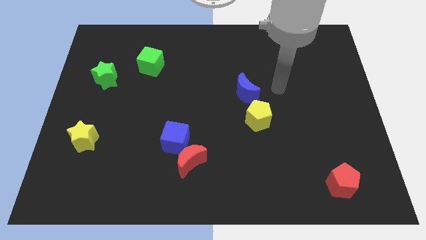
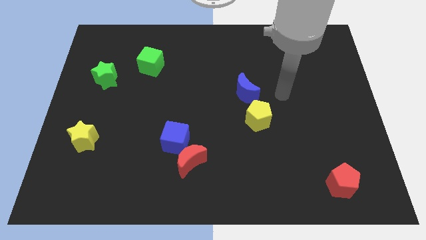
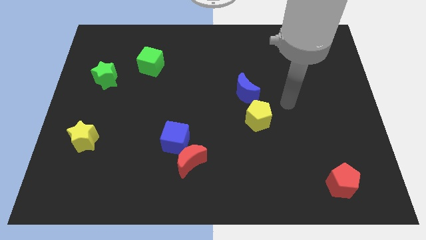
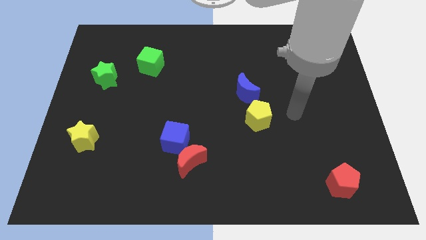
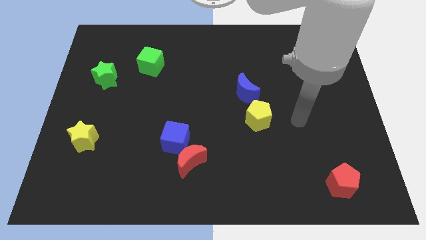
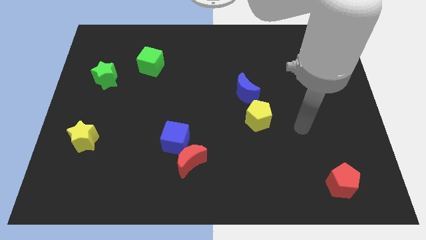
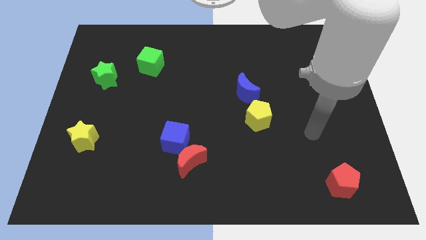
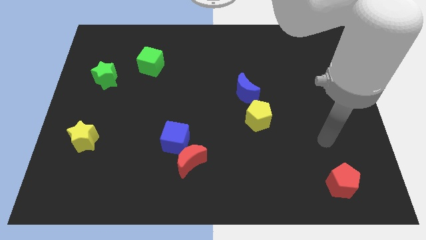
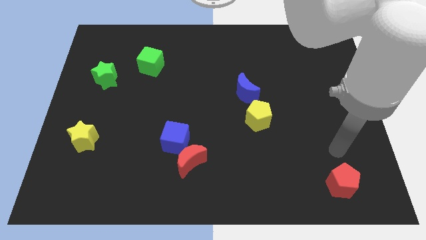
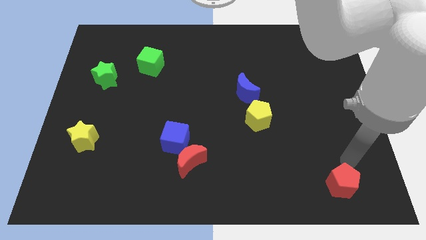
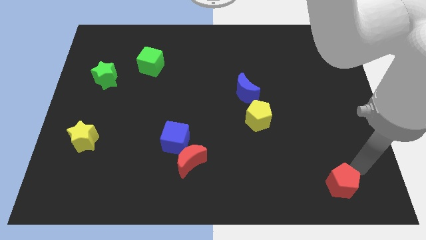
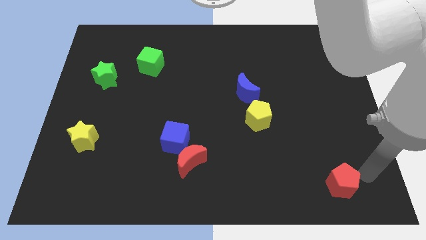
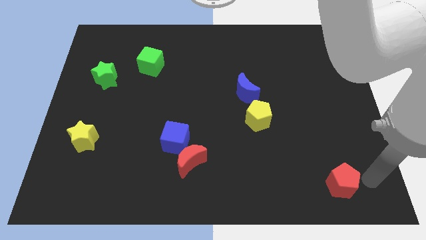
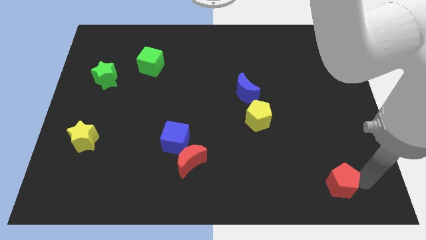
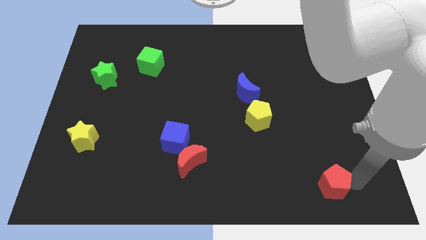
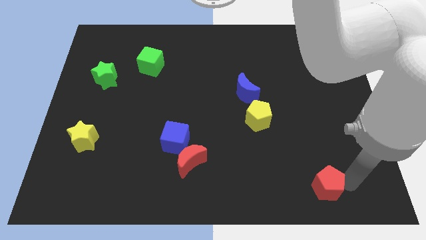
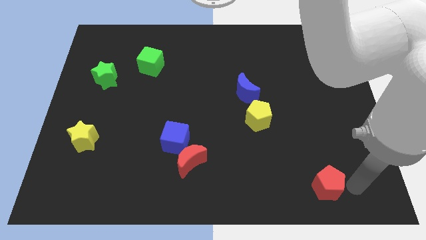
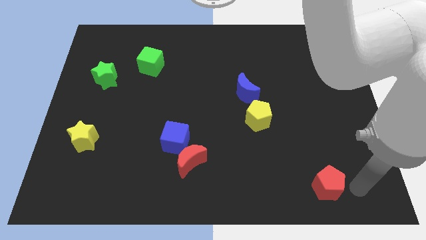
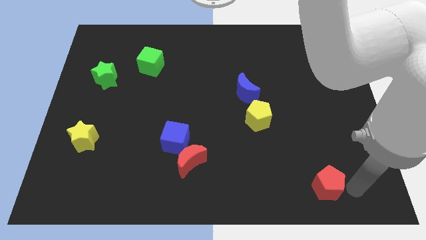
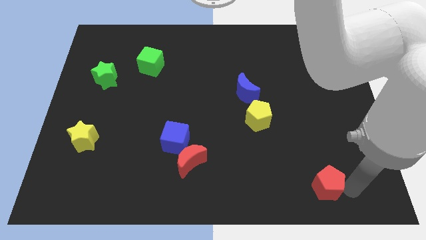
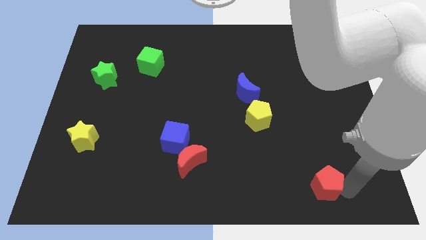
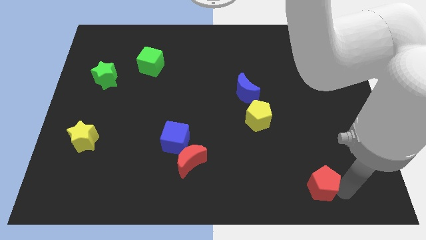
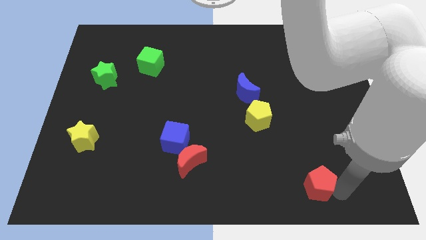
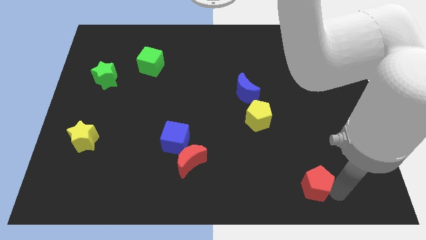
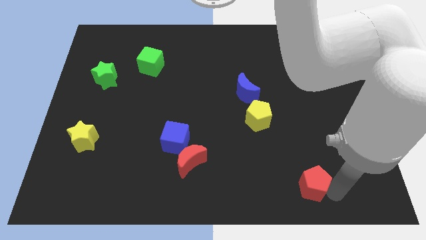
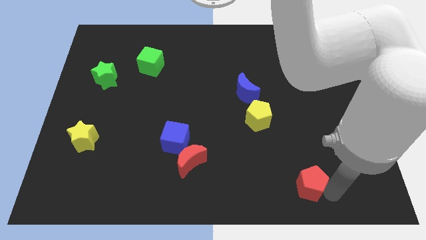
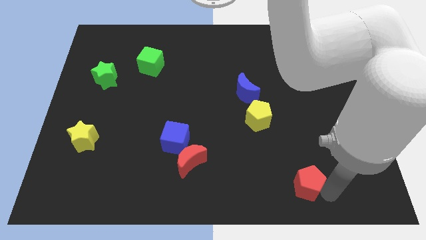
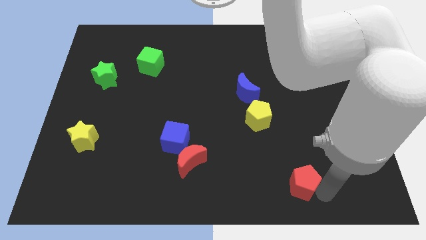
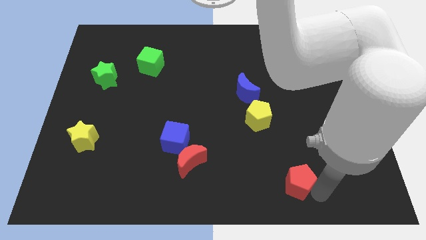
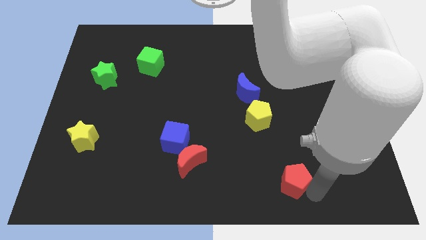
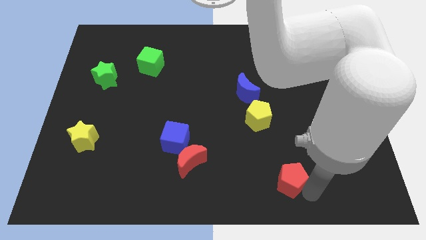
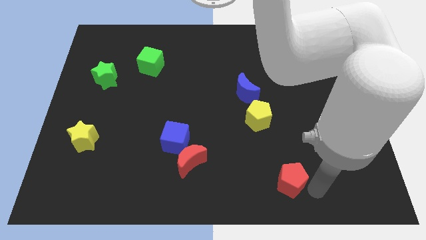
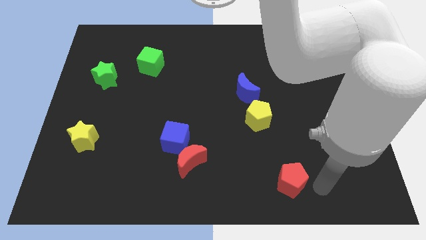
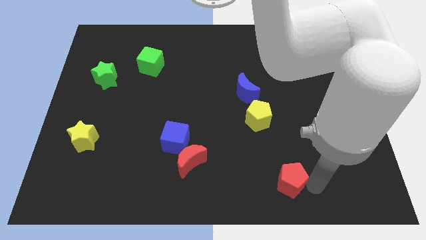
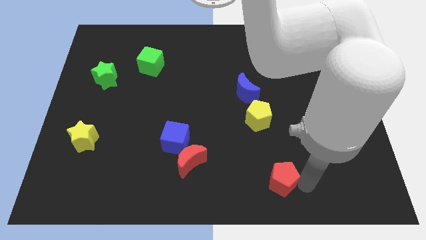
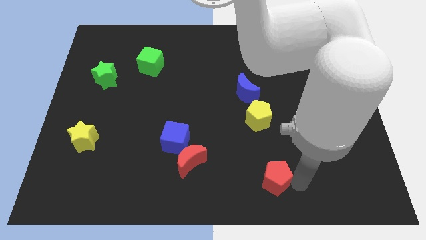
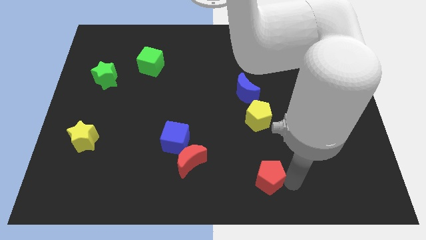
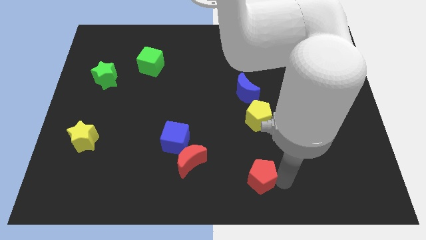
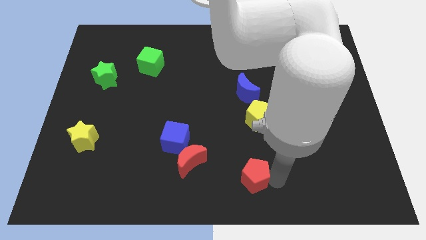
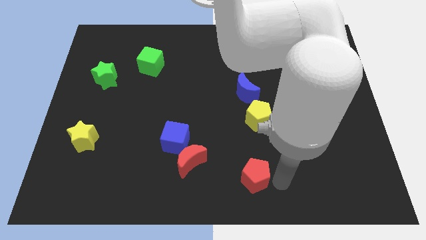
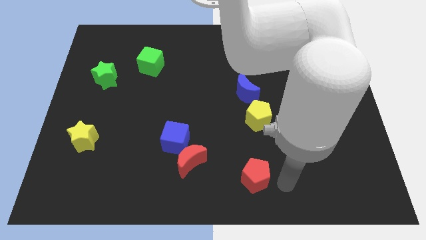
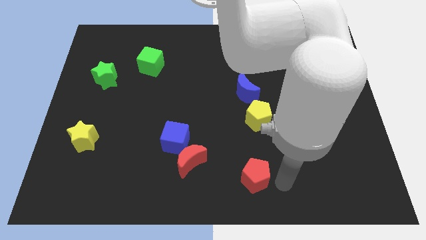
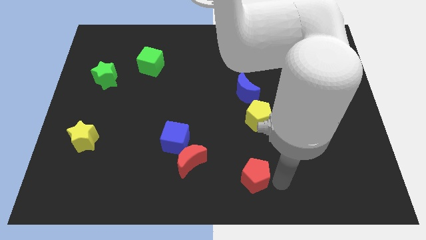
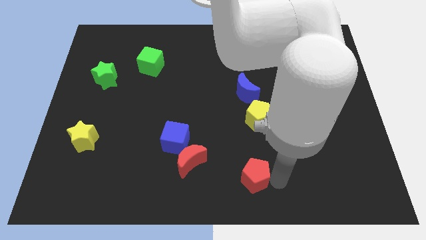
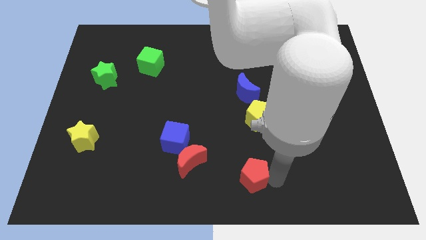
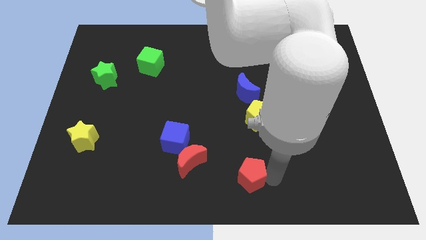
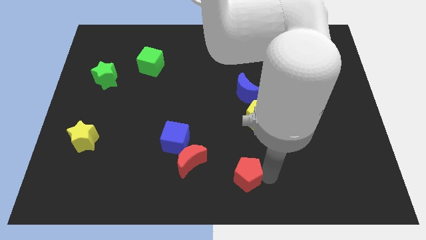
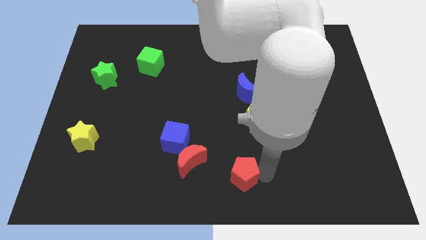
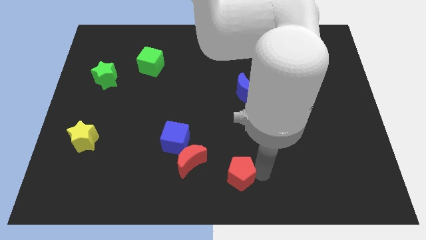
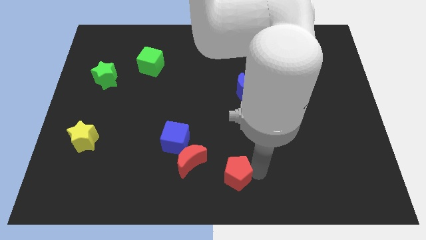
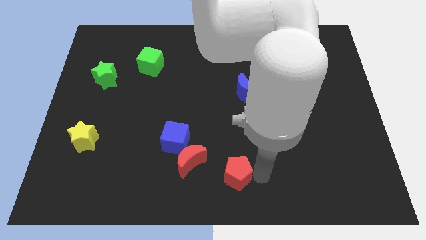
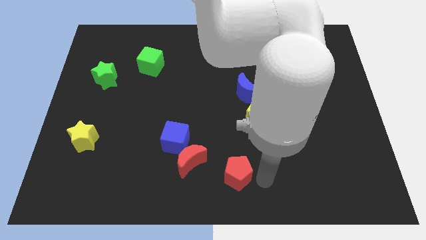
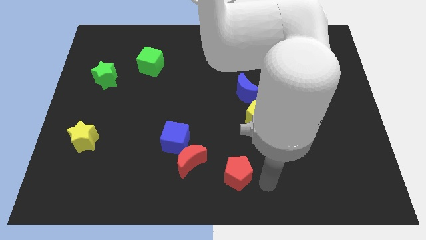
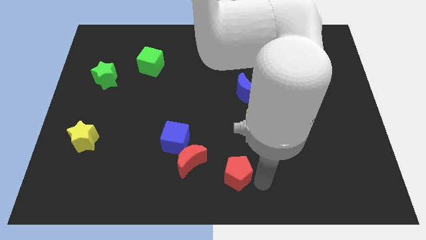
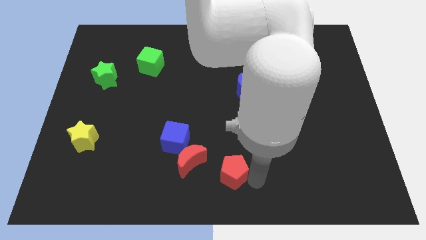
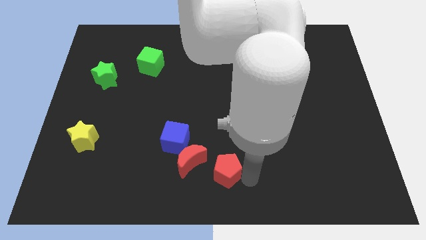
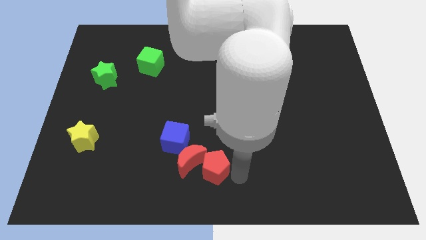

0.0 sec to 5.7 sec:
move the red pentagon next to the red moon

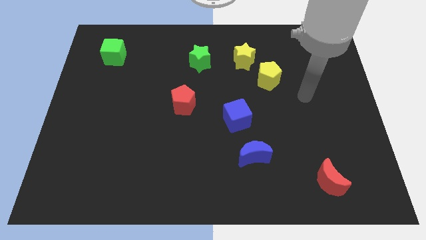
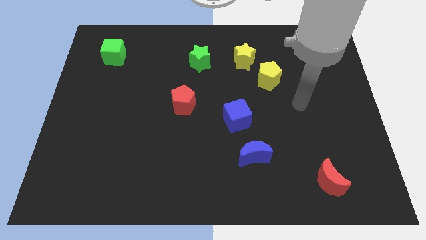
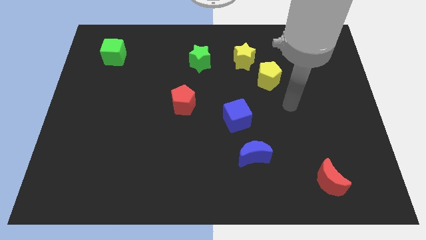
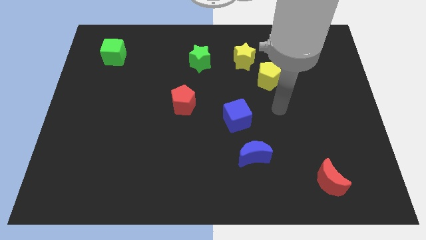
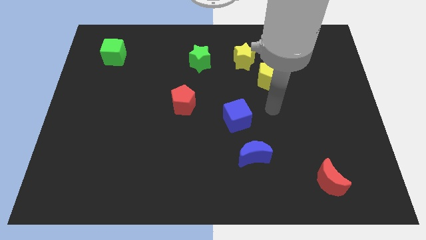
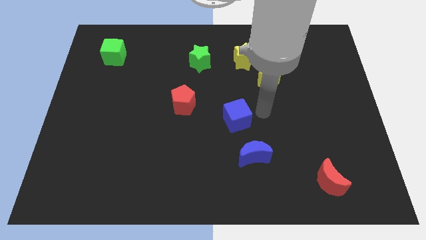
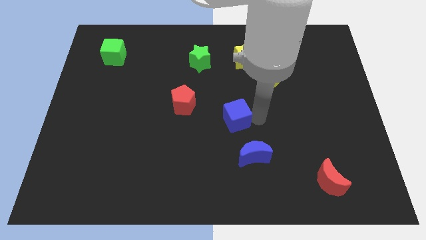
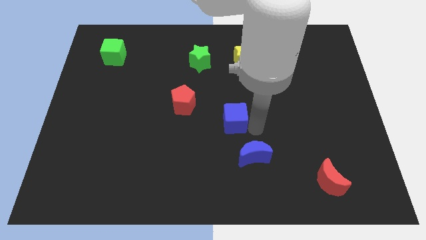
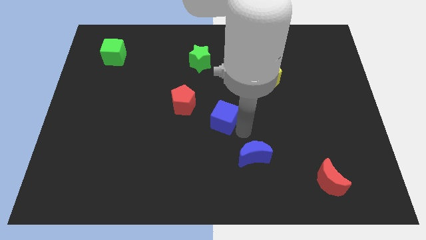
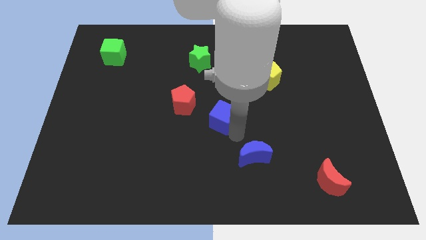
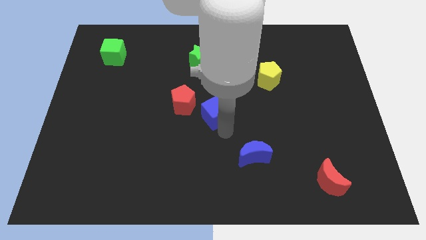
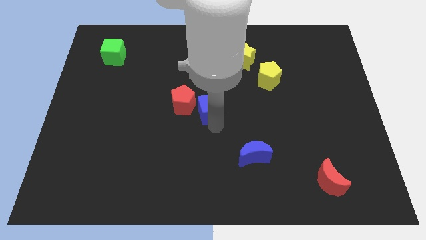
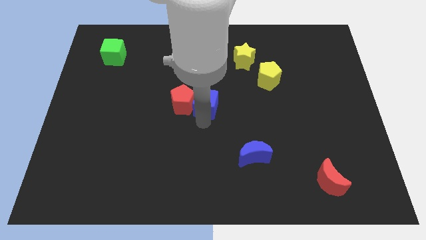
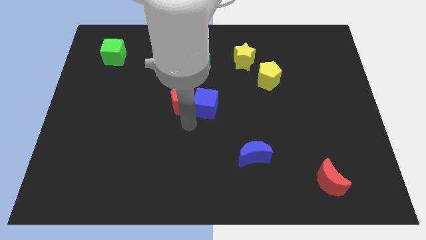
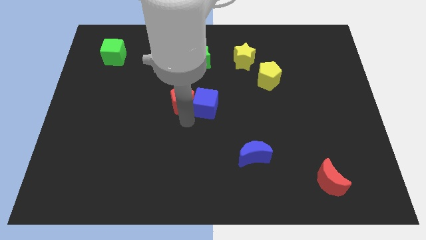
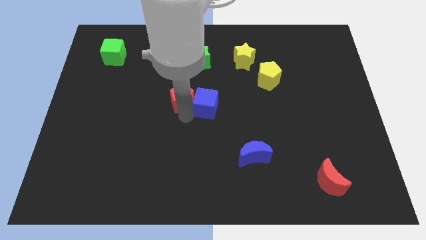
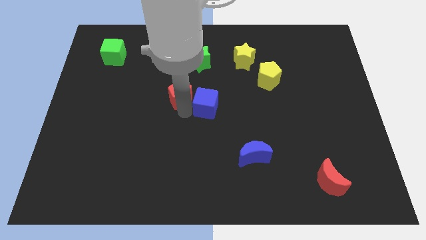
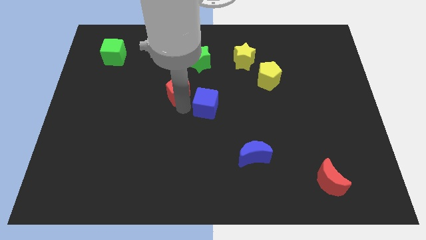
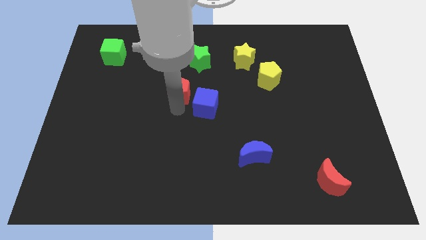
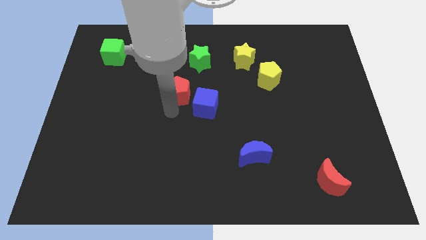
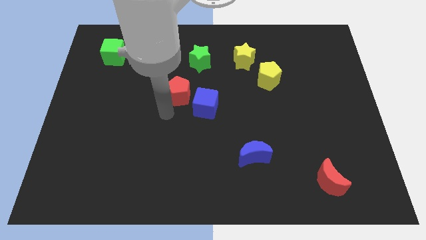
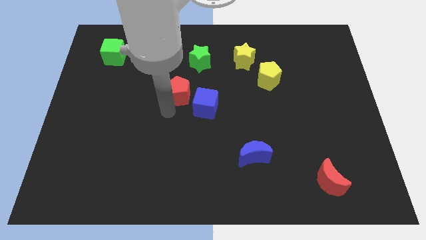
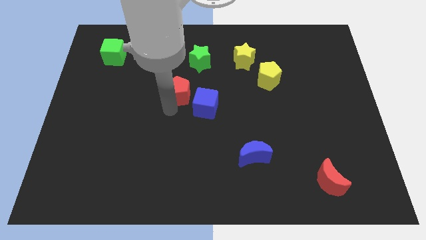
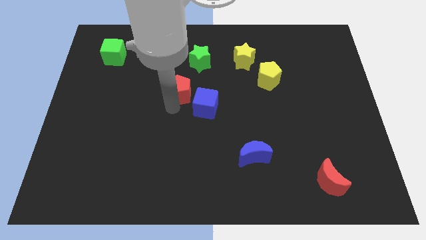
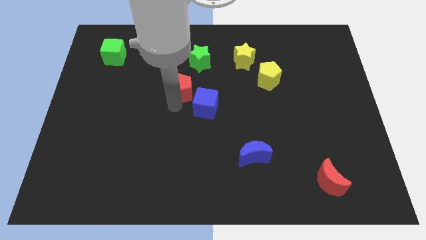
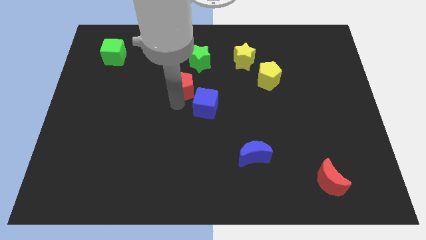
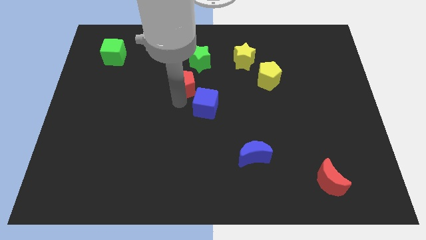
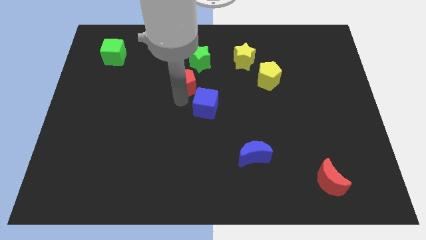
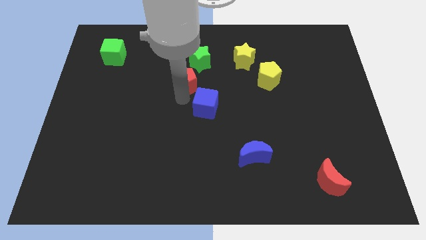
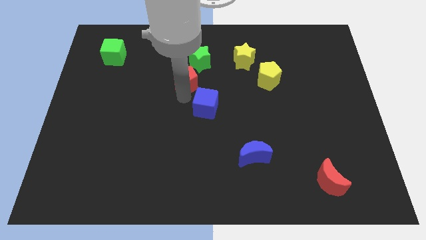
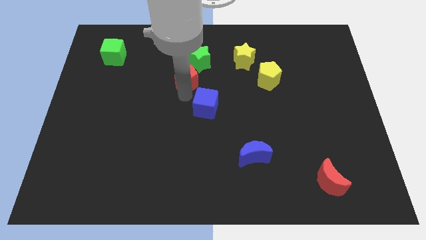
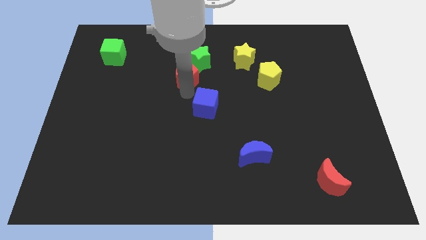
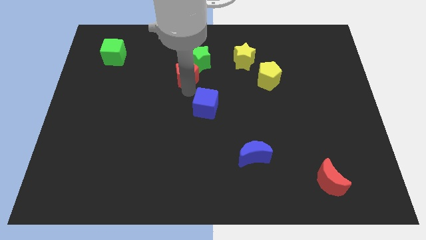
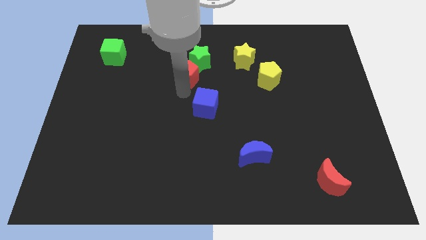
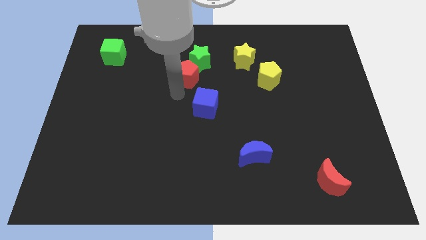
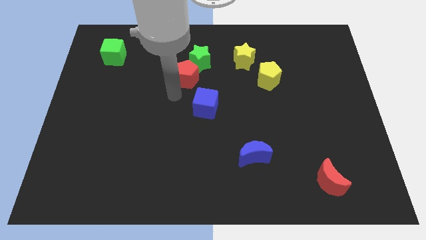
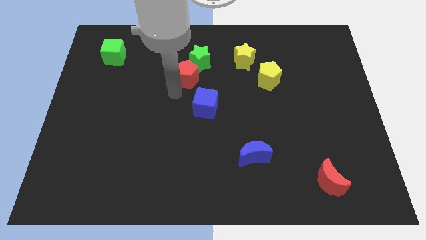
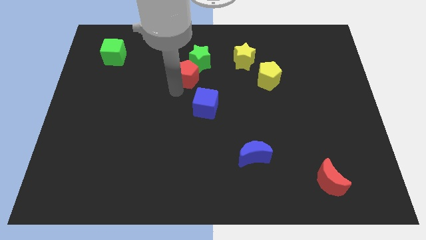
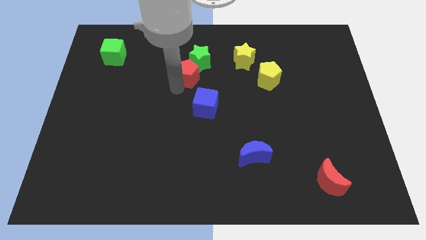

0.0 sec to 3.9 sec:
push the red pentagon next to the green star
